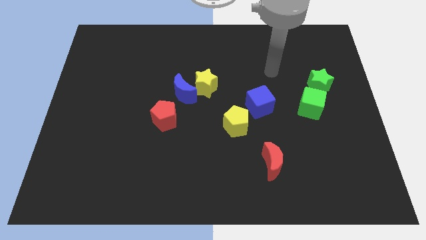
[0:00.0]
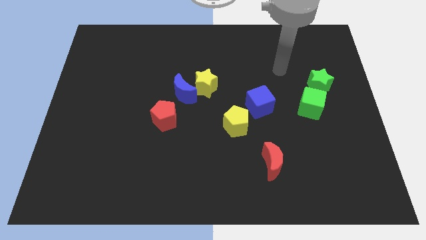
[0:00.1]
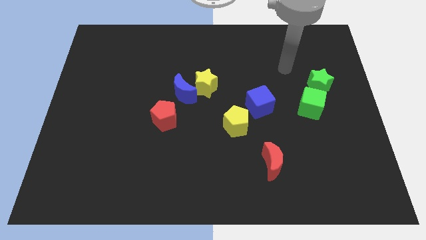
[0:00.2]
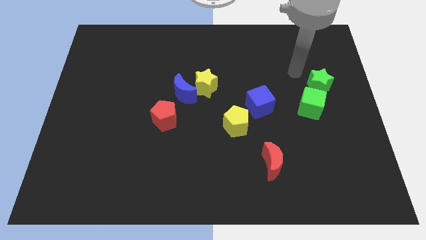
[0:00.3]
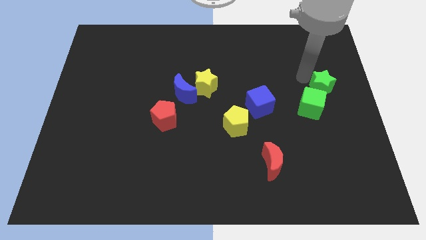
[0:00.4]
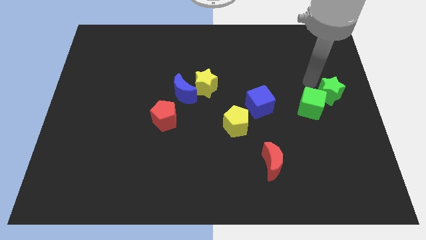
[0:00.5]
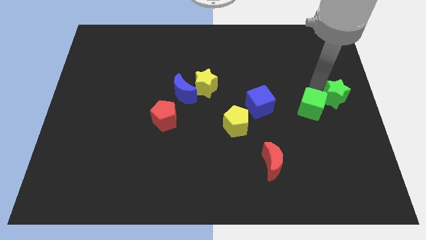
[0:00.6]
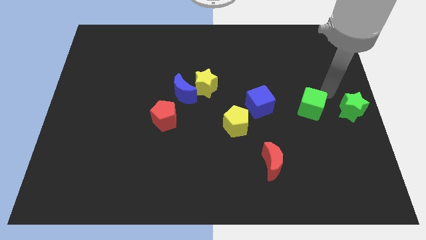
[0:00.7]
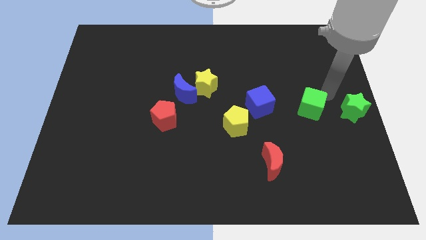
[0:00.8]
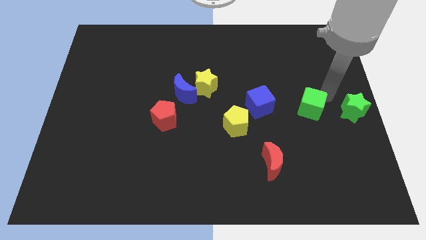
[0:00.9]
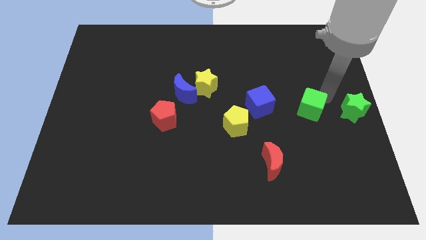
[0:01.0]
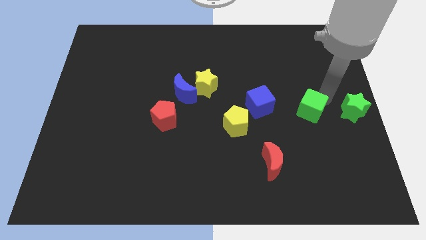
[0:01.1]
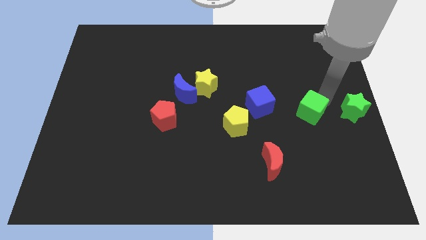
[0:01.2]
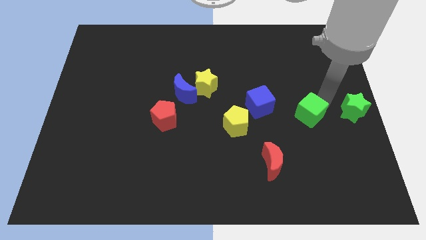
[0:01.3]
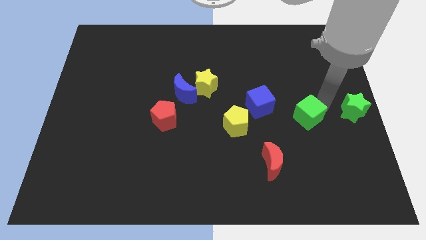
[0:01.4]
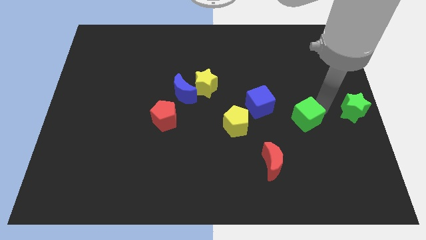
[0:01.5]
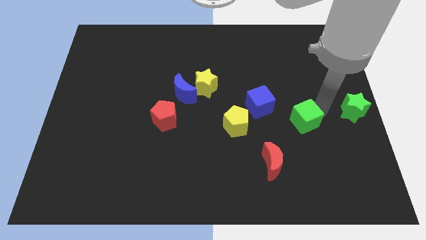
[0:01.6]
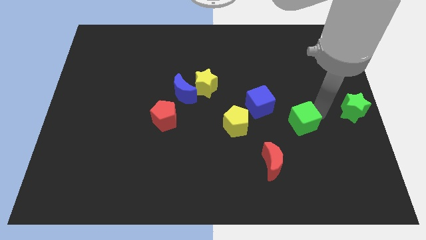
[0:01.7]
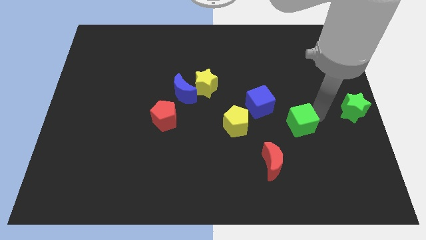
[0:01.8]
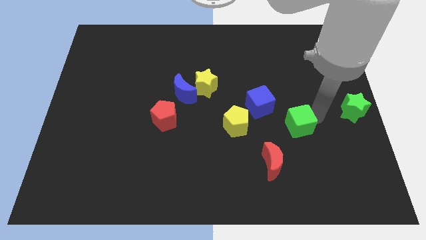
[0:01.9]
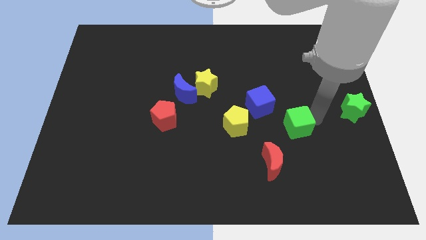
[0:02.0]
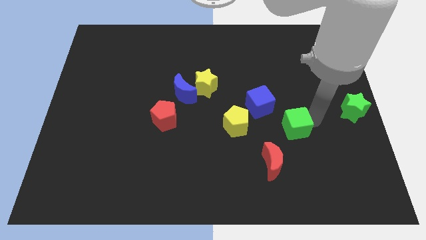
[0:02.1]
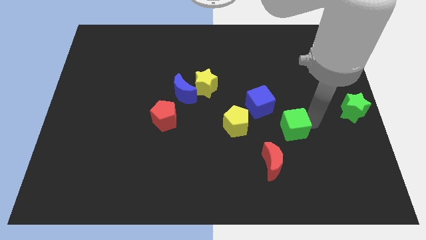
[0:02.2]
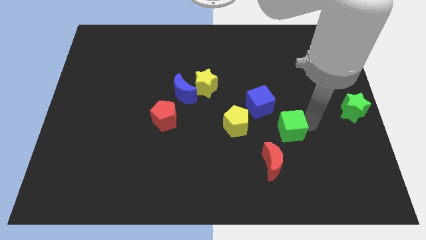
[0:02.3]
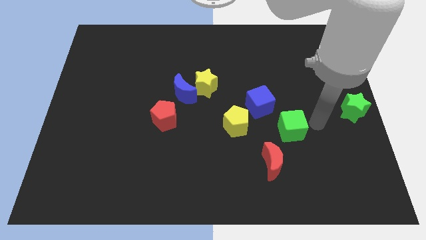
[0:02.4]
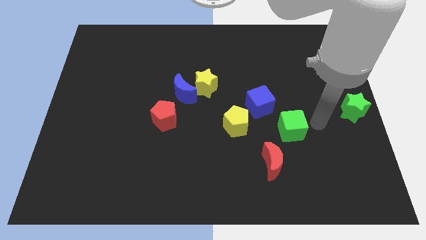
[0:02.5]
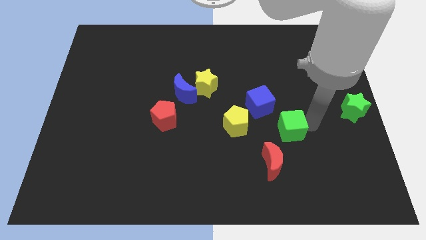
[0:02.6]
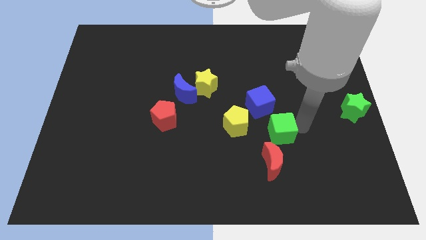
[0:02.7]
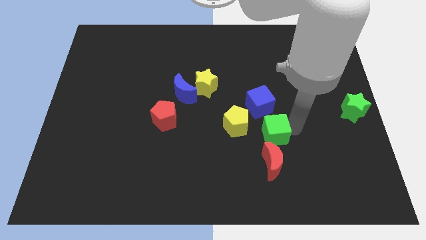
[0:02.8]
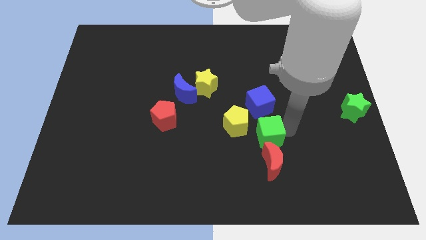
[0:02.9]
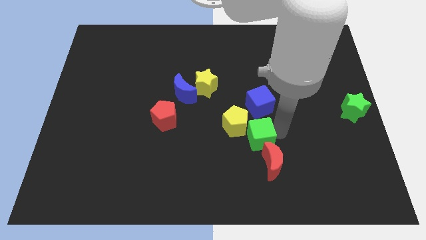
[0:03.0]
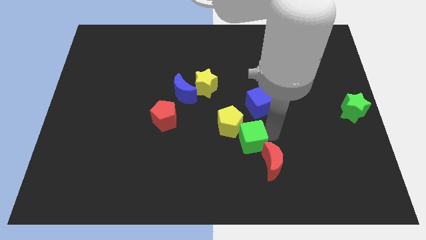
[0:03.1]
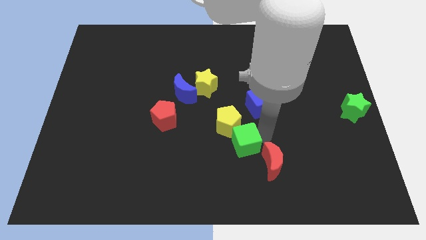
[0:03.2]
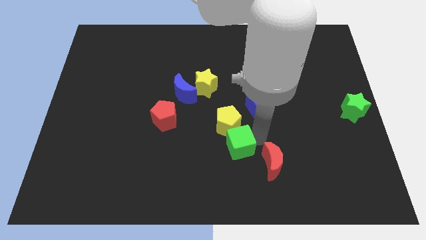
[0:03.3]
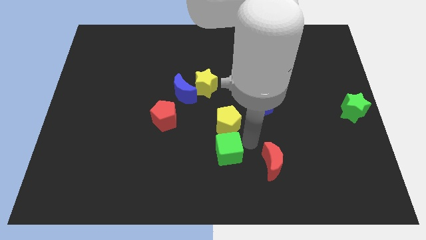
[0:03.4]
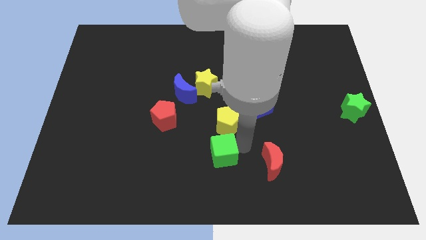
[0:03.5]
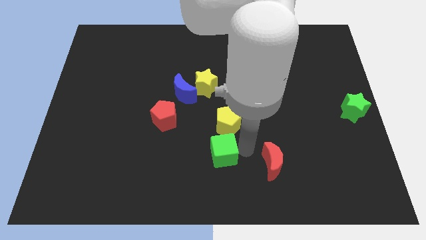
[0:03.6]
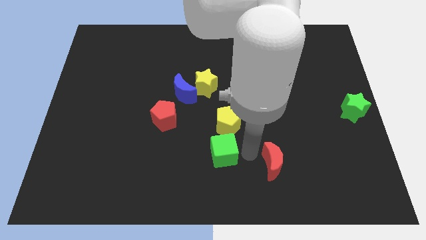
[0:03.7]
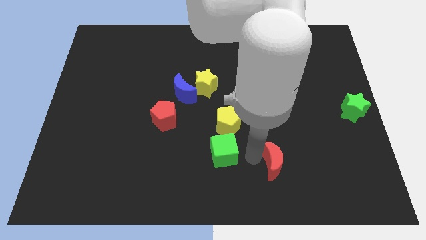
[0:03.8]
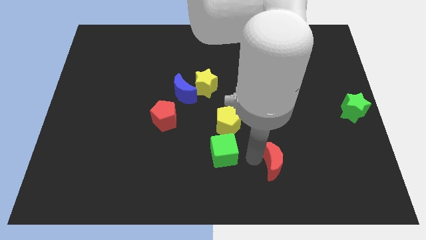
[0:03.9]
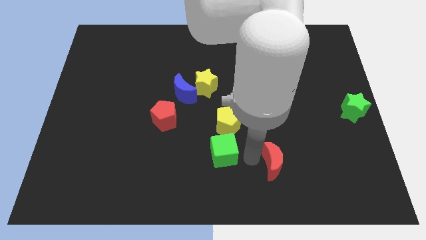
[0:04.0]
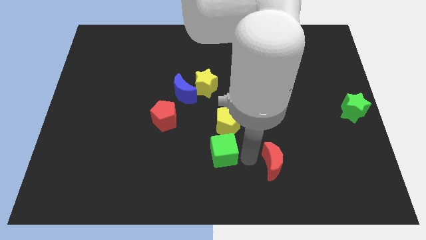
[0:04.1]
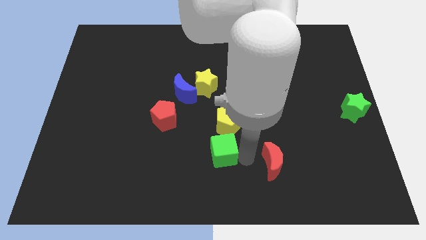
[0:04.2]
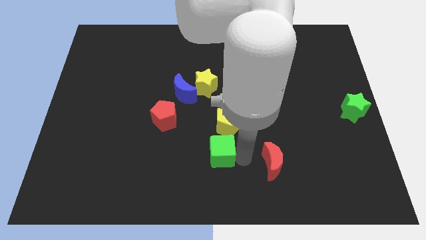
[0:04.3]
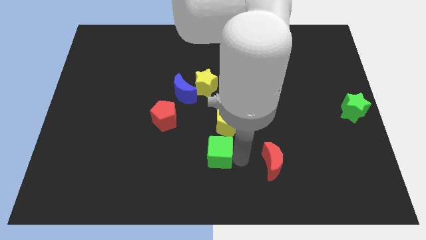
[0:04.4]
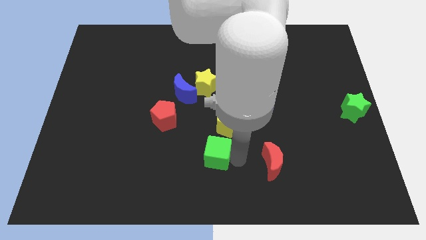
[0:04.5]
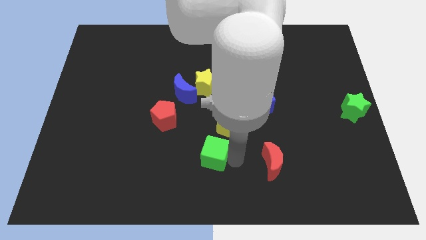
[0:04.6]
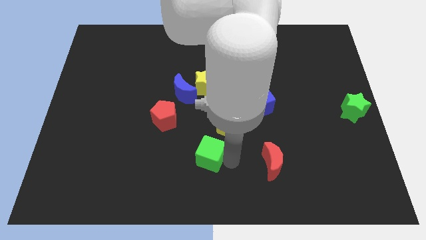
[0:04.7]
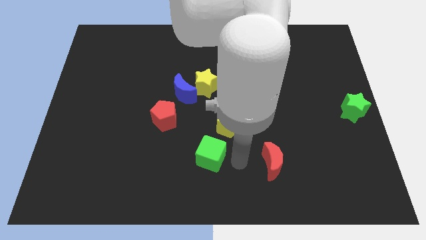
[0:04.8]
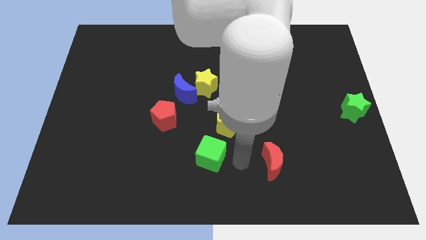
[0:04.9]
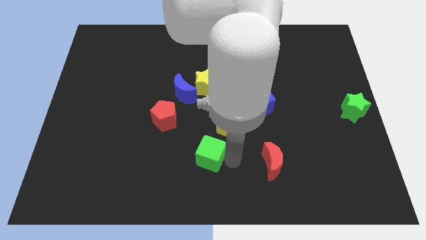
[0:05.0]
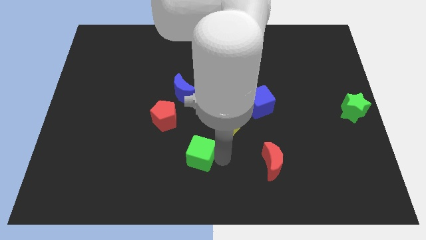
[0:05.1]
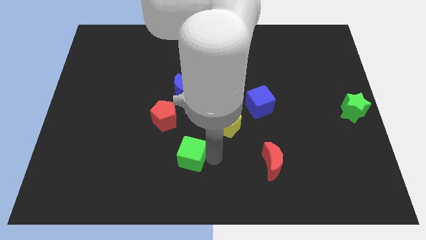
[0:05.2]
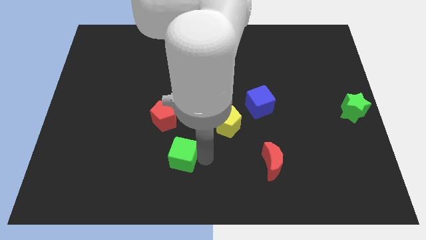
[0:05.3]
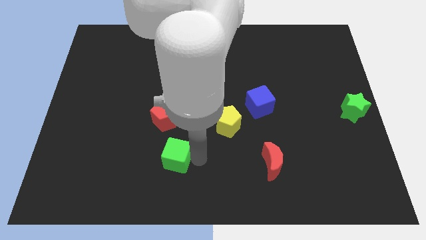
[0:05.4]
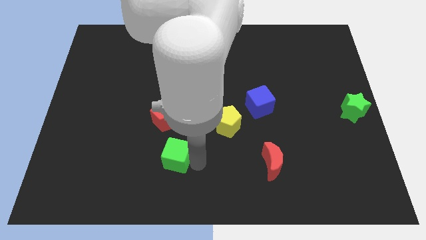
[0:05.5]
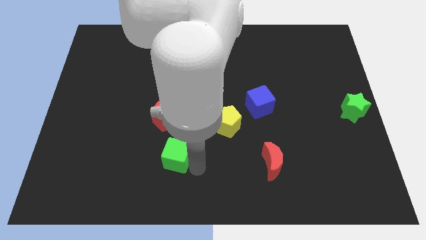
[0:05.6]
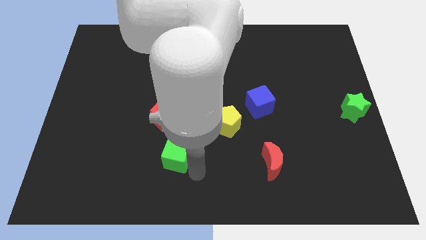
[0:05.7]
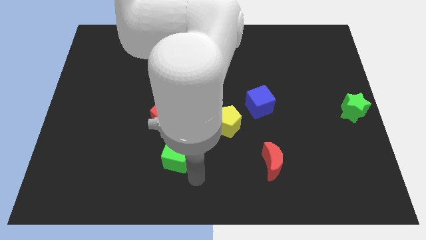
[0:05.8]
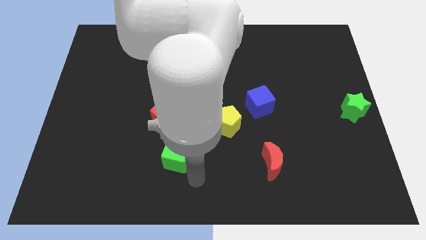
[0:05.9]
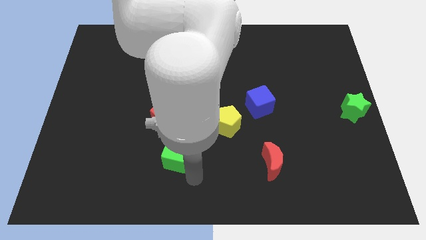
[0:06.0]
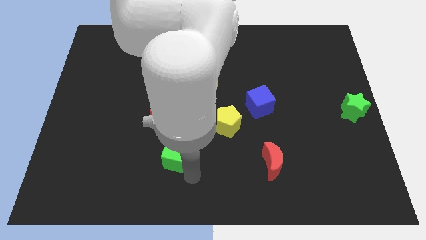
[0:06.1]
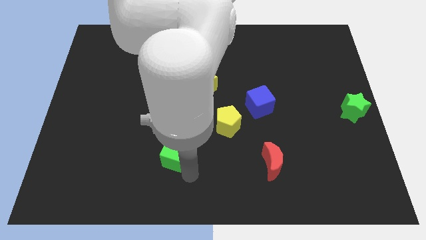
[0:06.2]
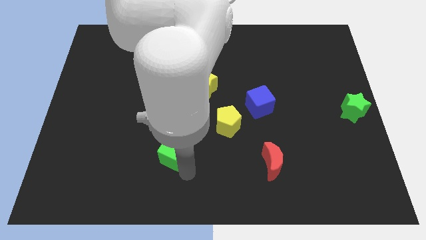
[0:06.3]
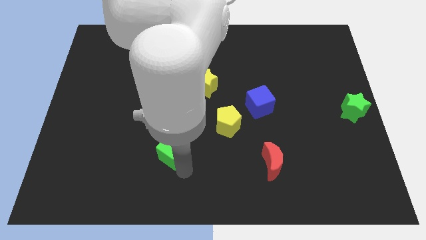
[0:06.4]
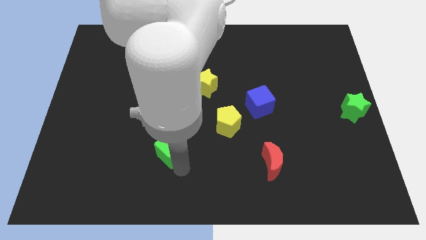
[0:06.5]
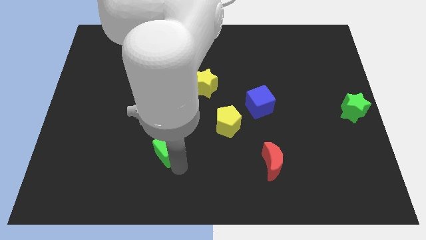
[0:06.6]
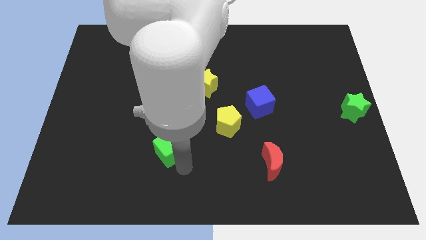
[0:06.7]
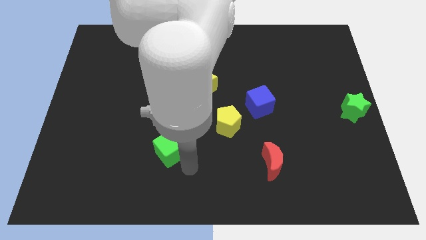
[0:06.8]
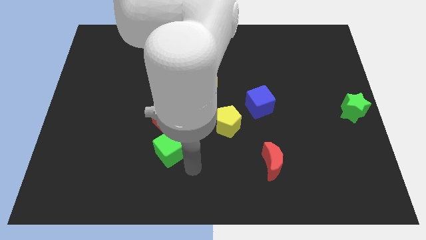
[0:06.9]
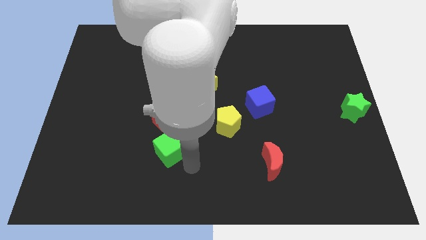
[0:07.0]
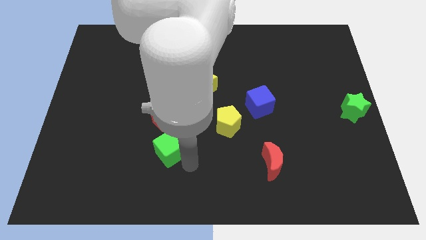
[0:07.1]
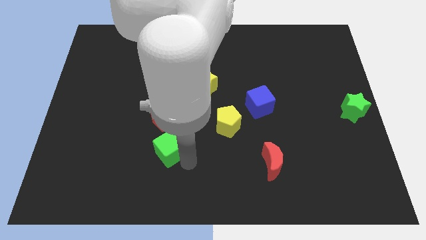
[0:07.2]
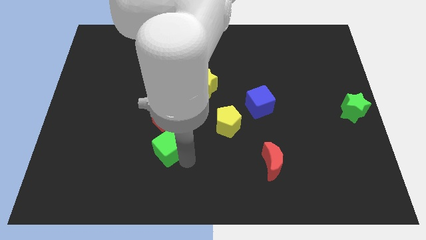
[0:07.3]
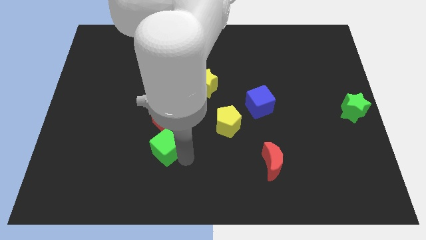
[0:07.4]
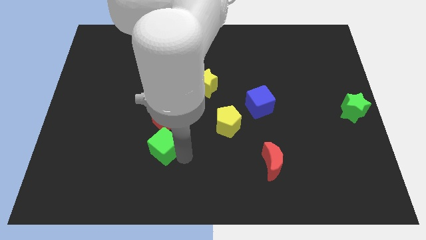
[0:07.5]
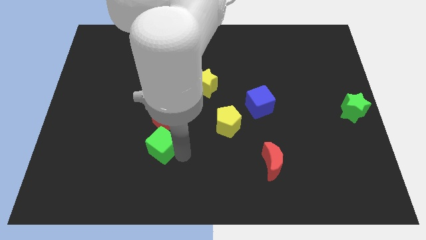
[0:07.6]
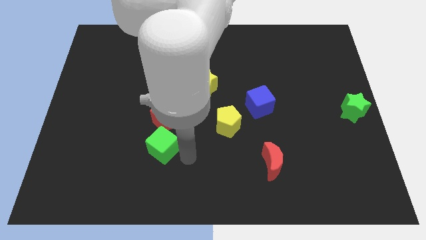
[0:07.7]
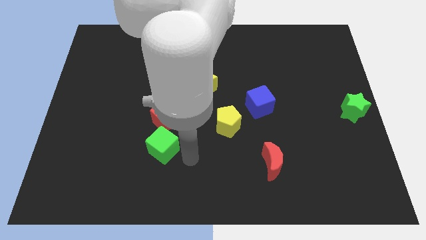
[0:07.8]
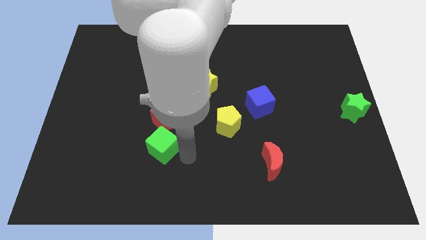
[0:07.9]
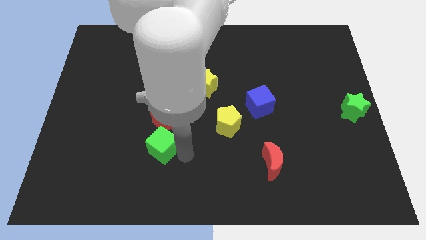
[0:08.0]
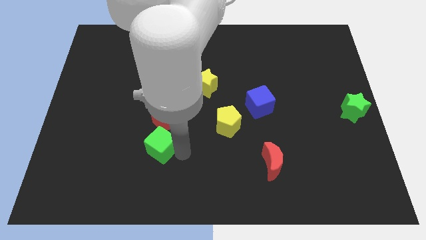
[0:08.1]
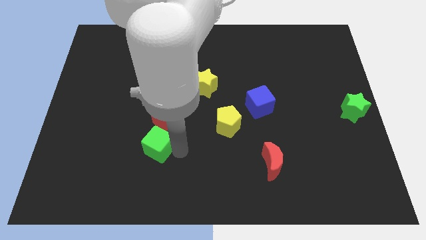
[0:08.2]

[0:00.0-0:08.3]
move the green cube diagonally down and to the left of the red pentagon
